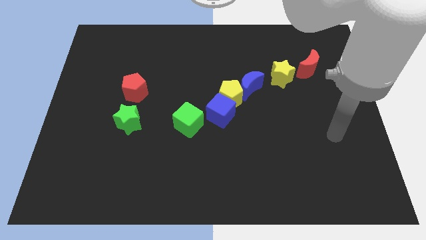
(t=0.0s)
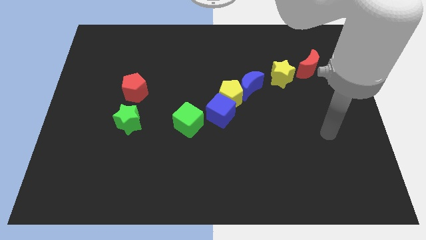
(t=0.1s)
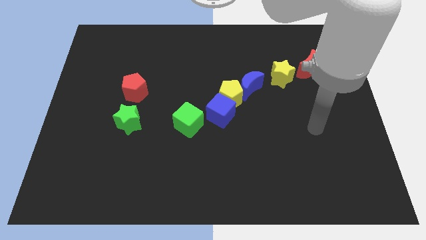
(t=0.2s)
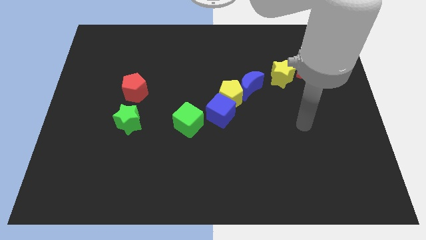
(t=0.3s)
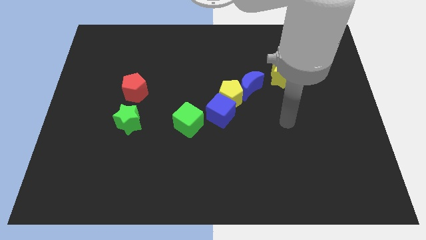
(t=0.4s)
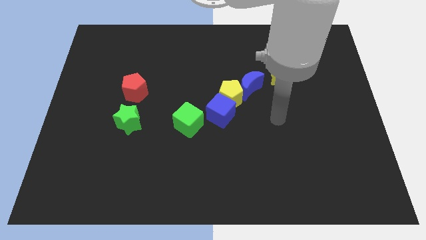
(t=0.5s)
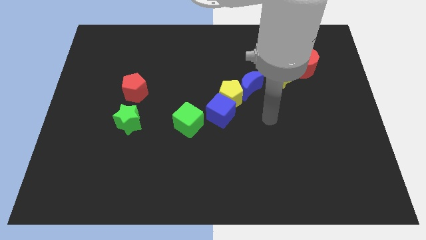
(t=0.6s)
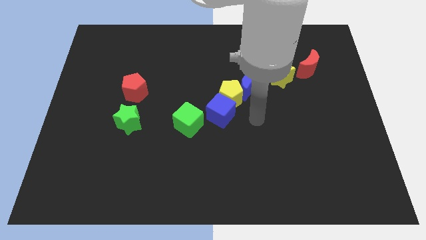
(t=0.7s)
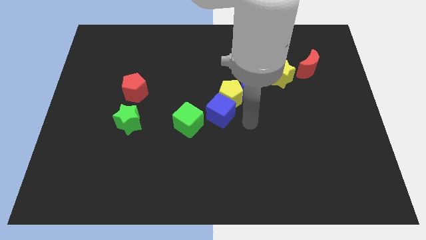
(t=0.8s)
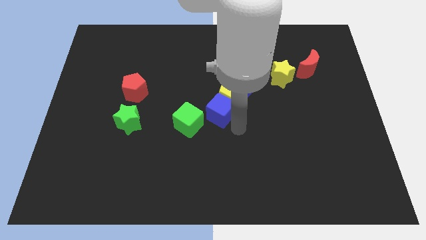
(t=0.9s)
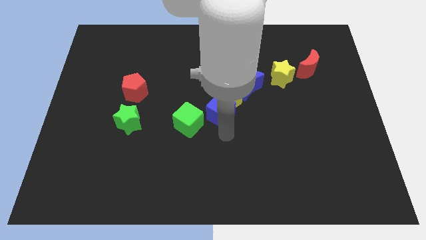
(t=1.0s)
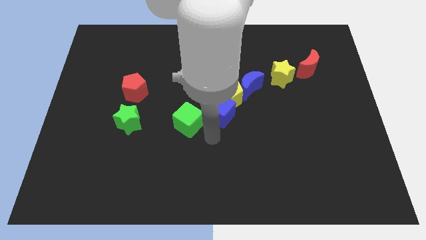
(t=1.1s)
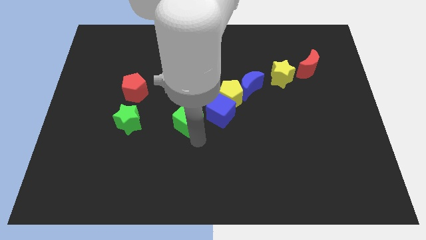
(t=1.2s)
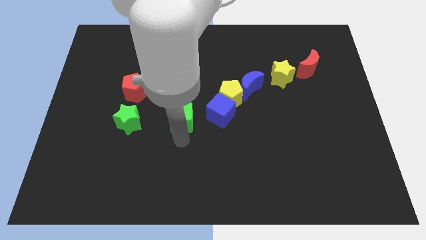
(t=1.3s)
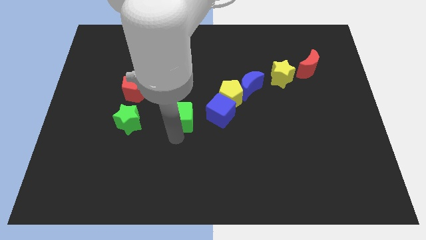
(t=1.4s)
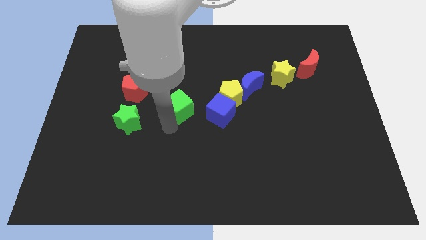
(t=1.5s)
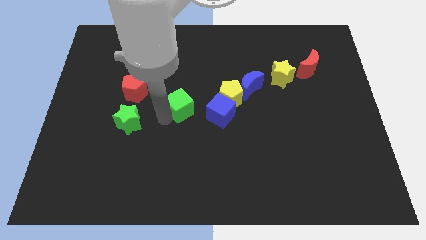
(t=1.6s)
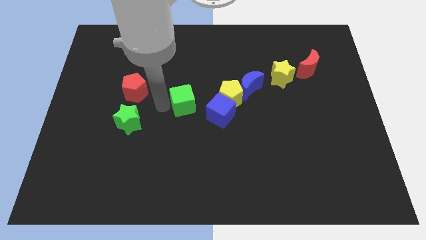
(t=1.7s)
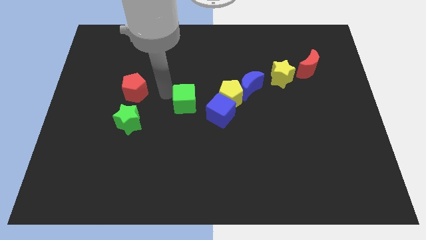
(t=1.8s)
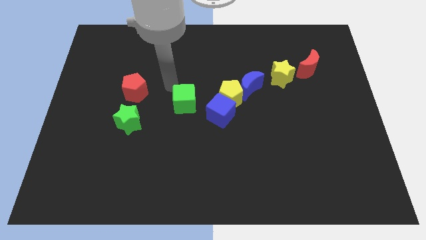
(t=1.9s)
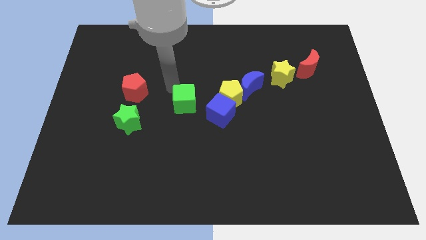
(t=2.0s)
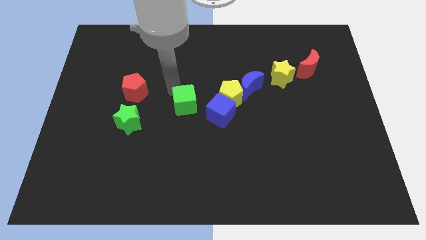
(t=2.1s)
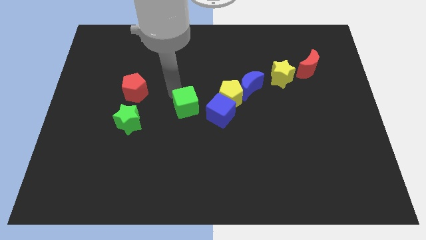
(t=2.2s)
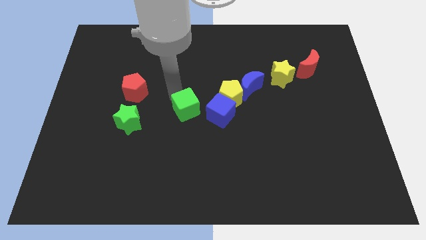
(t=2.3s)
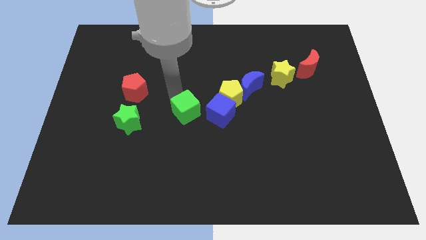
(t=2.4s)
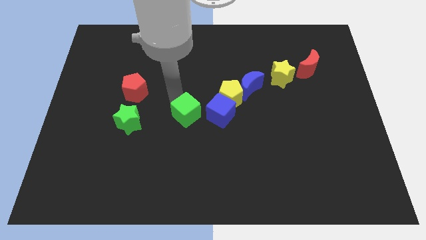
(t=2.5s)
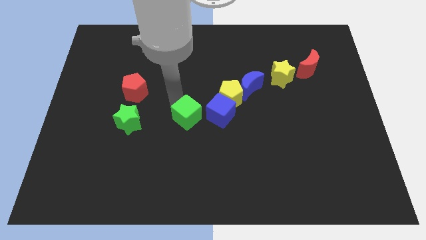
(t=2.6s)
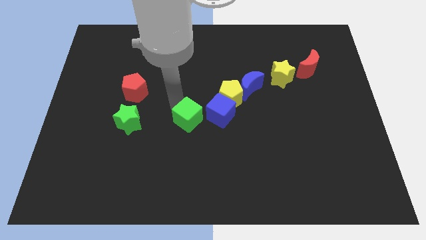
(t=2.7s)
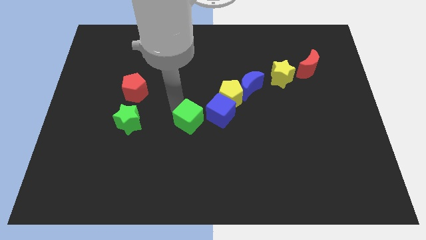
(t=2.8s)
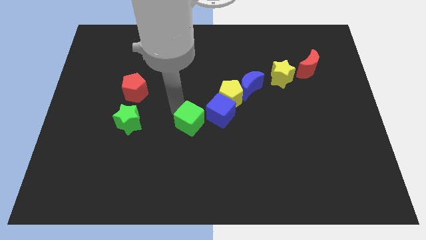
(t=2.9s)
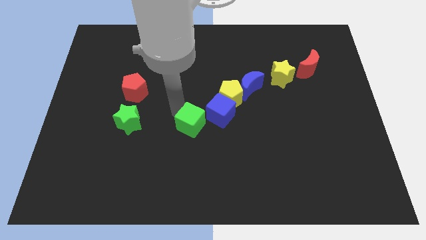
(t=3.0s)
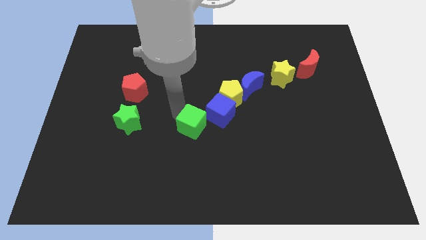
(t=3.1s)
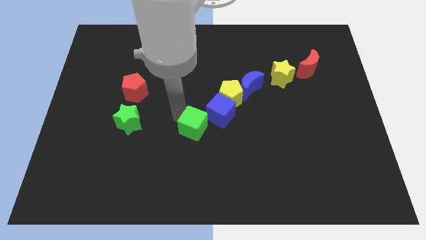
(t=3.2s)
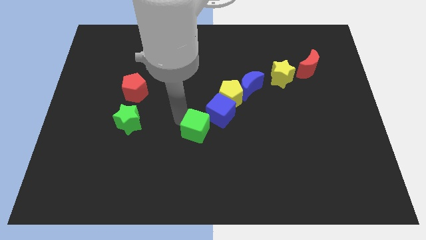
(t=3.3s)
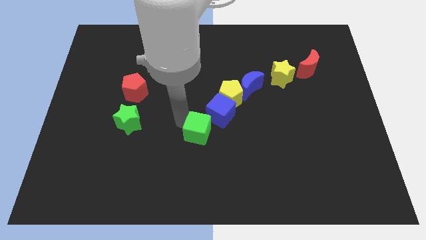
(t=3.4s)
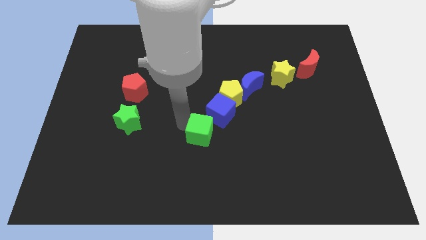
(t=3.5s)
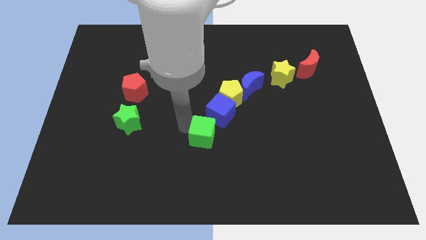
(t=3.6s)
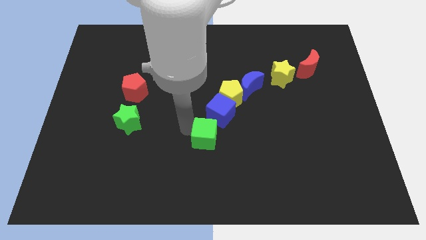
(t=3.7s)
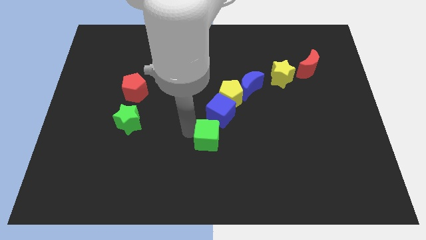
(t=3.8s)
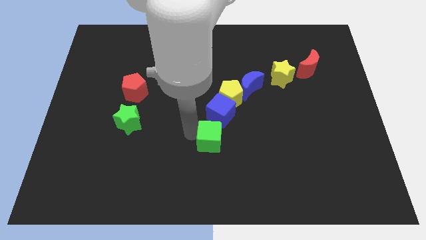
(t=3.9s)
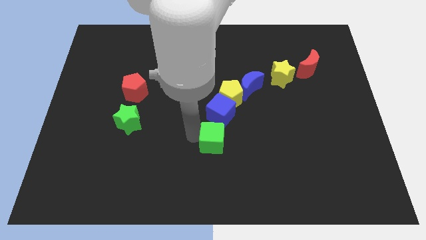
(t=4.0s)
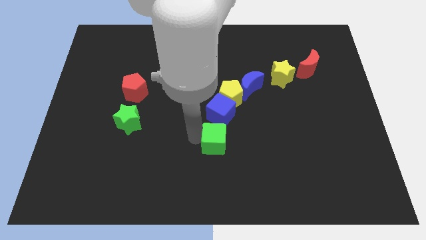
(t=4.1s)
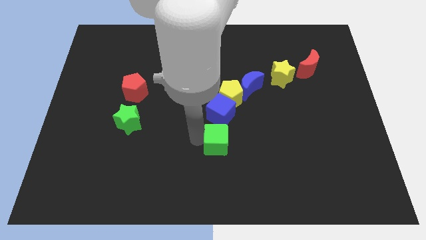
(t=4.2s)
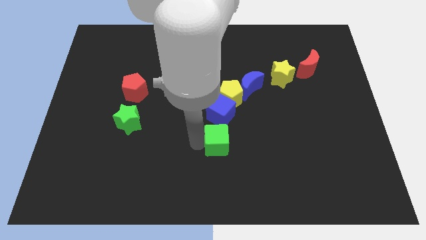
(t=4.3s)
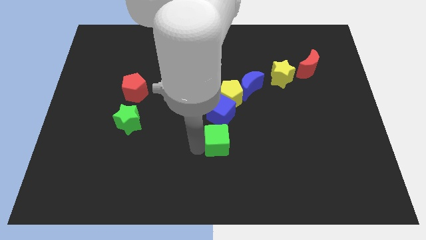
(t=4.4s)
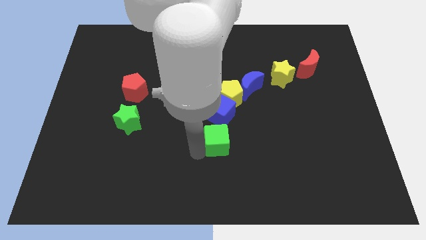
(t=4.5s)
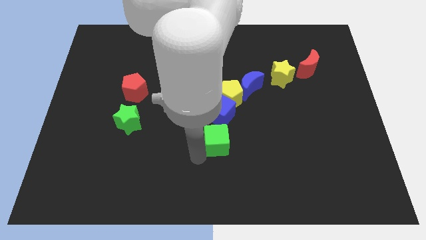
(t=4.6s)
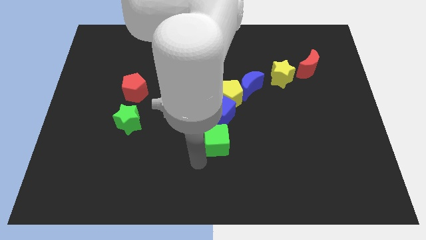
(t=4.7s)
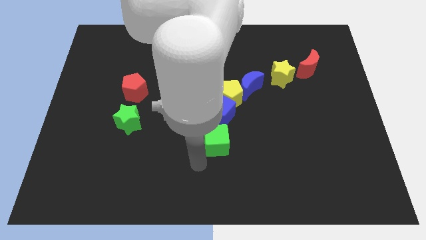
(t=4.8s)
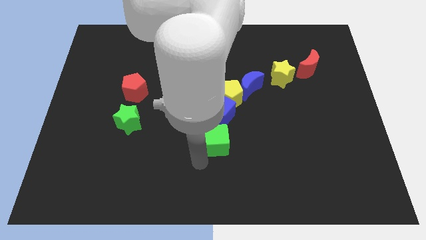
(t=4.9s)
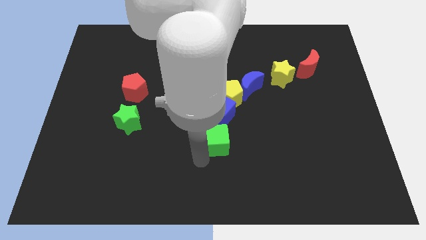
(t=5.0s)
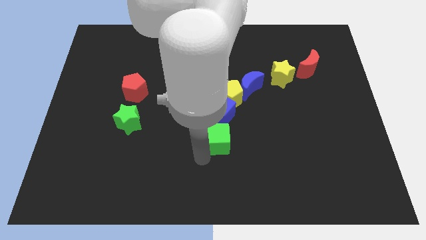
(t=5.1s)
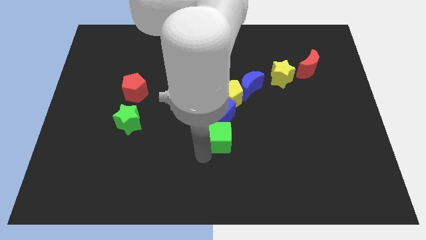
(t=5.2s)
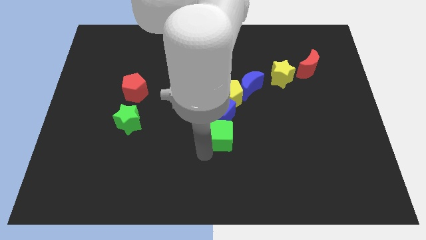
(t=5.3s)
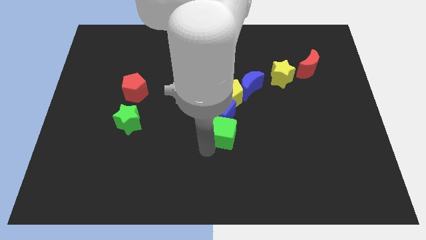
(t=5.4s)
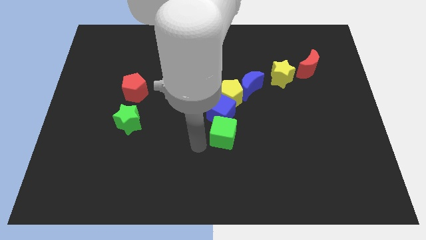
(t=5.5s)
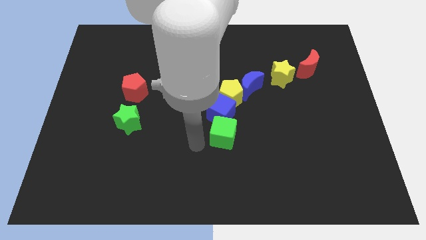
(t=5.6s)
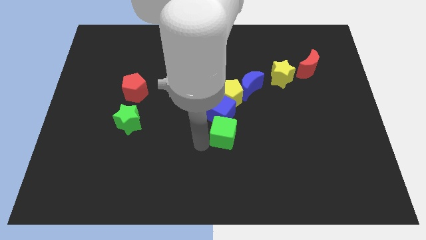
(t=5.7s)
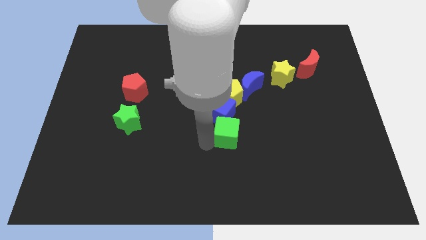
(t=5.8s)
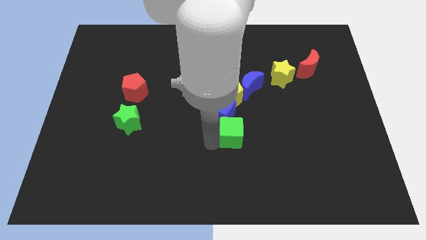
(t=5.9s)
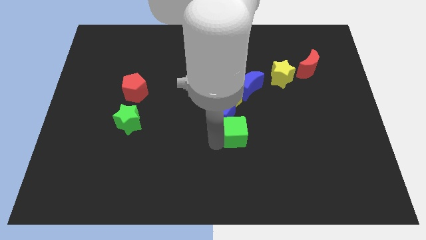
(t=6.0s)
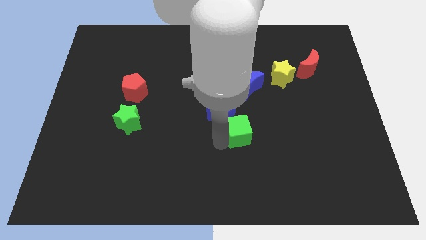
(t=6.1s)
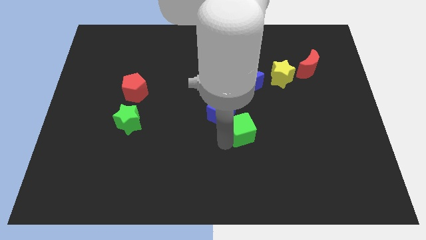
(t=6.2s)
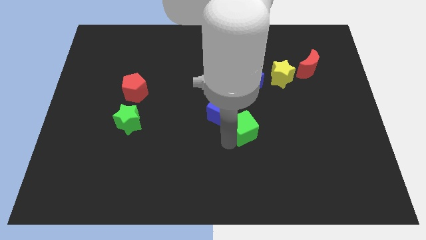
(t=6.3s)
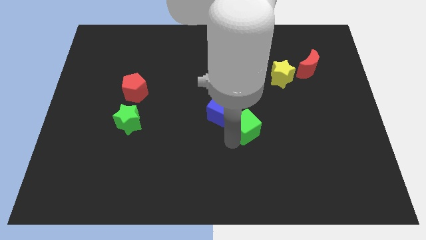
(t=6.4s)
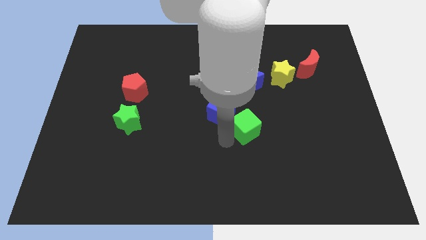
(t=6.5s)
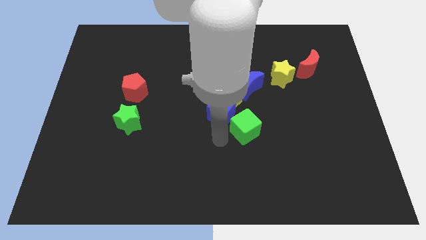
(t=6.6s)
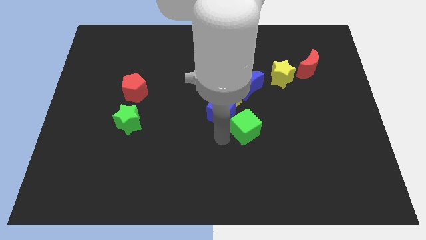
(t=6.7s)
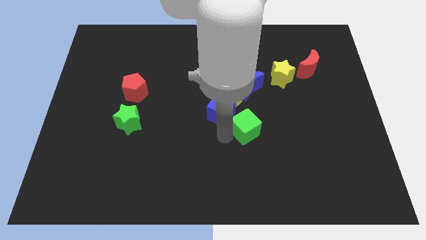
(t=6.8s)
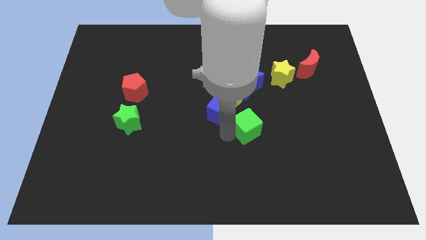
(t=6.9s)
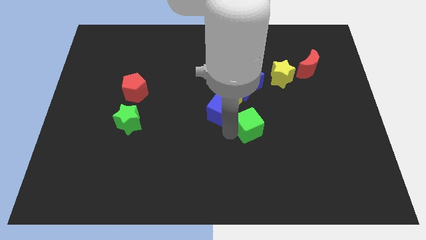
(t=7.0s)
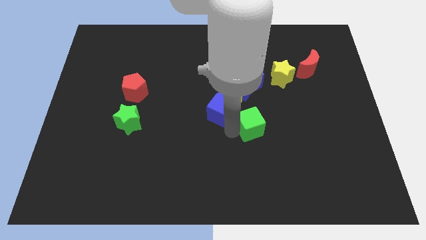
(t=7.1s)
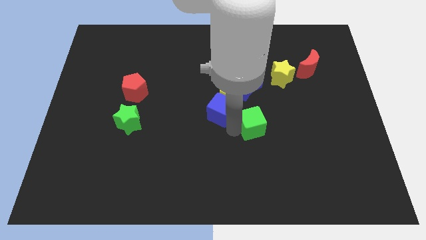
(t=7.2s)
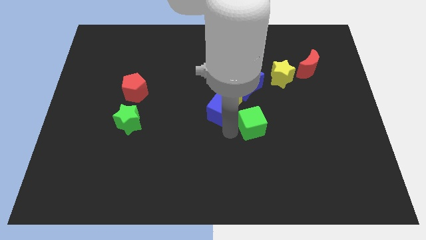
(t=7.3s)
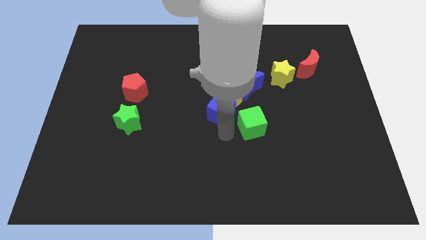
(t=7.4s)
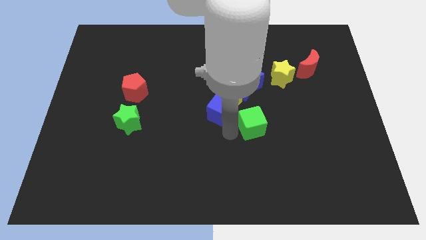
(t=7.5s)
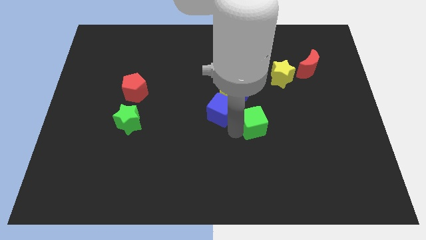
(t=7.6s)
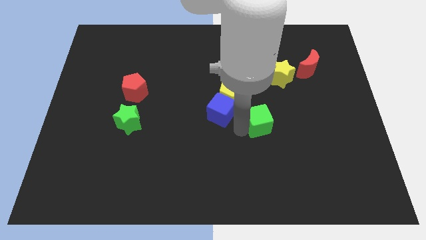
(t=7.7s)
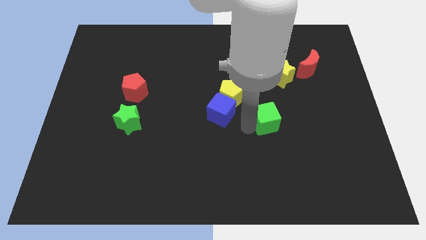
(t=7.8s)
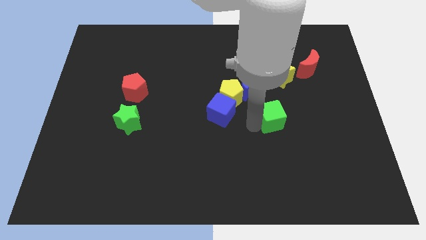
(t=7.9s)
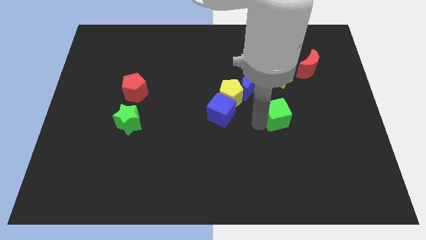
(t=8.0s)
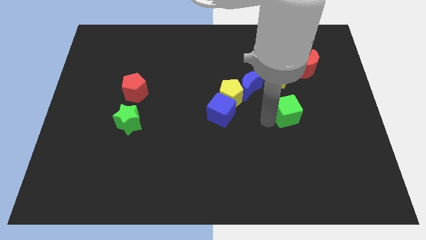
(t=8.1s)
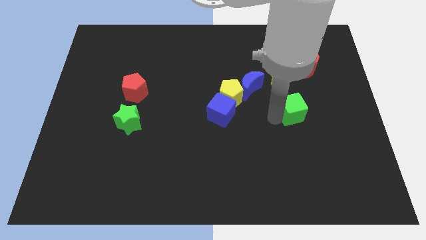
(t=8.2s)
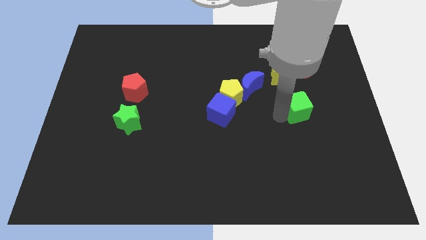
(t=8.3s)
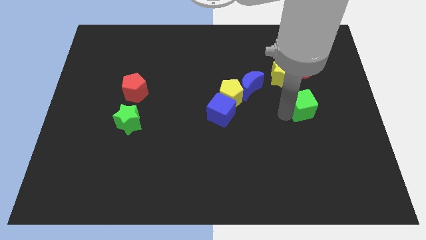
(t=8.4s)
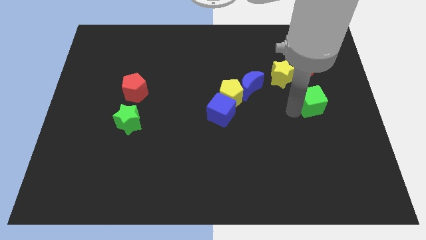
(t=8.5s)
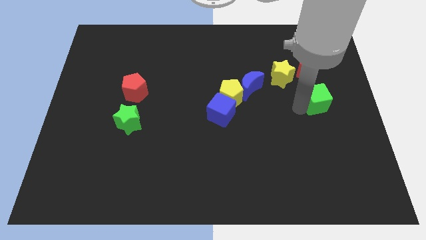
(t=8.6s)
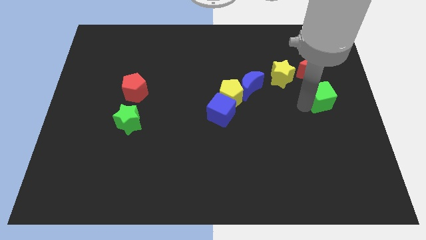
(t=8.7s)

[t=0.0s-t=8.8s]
slide the green cube to the right side
